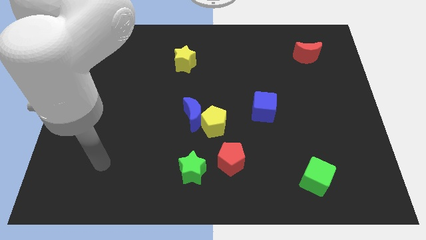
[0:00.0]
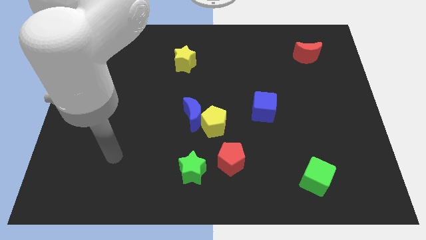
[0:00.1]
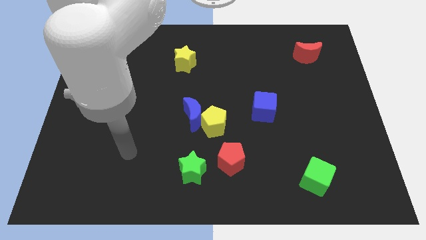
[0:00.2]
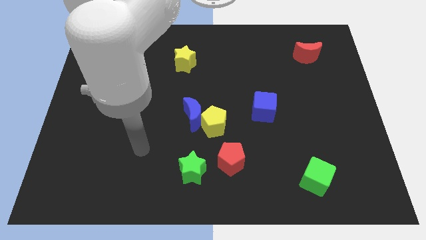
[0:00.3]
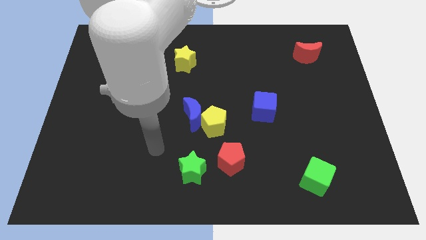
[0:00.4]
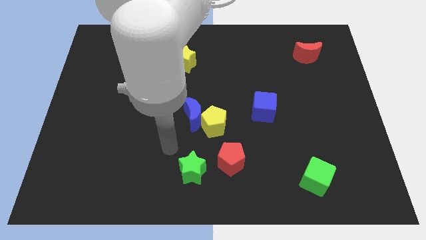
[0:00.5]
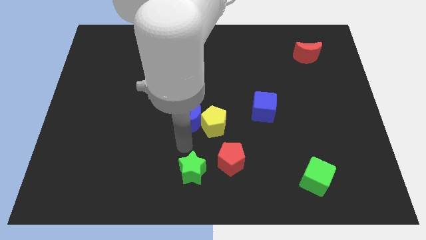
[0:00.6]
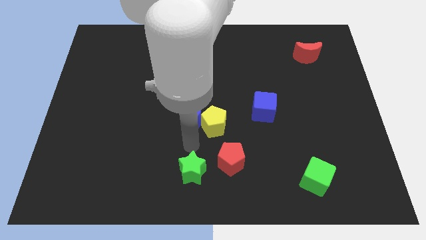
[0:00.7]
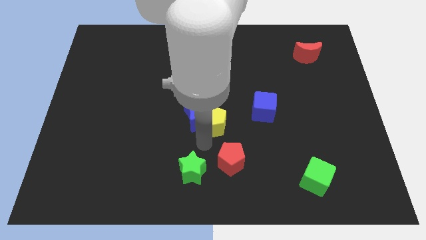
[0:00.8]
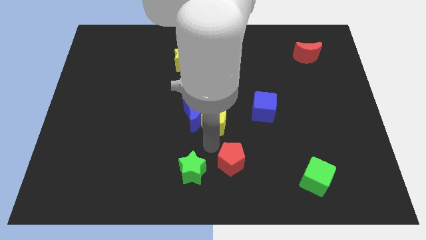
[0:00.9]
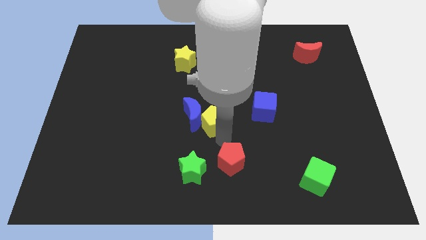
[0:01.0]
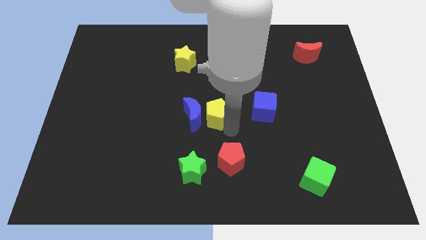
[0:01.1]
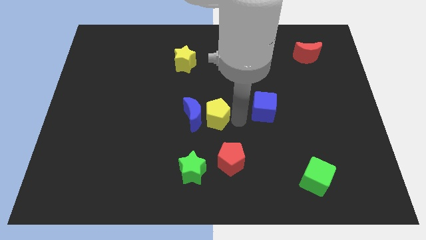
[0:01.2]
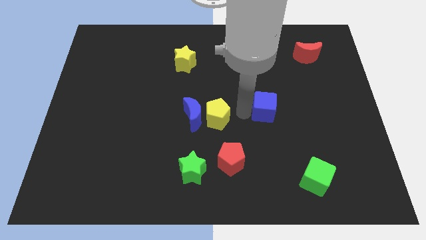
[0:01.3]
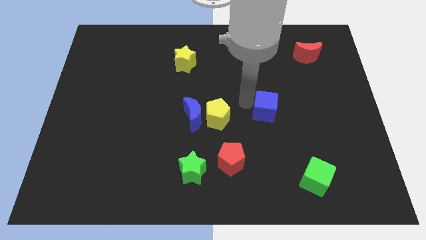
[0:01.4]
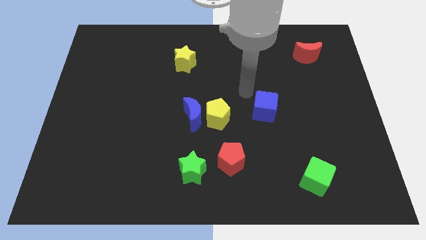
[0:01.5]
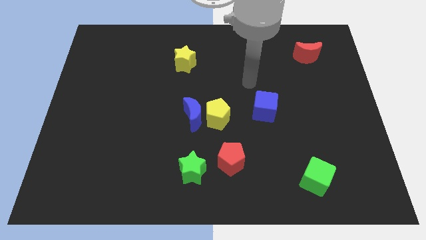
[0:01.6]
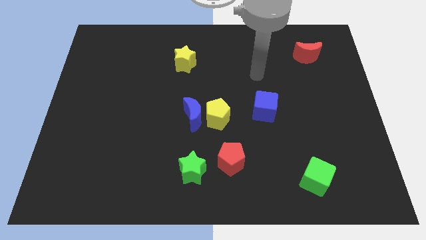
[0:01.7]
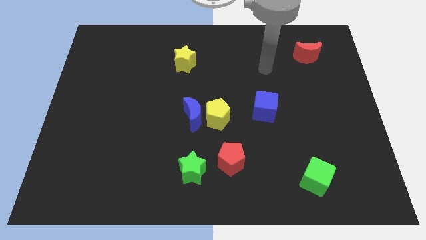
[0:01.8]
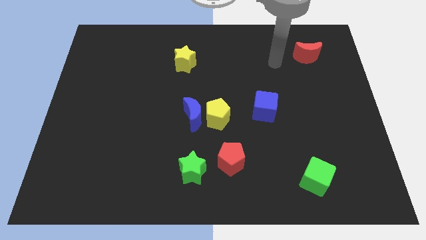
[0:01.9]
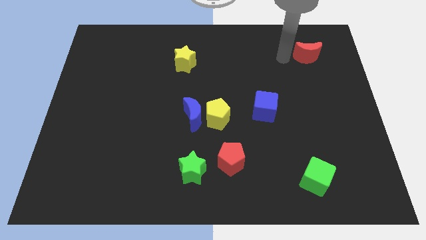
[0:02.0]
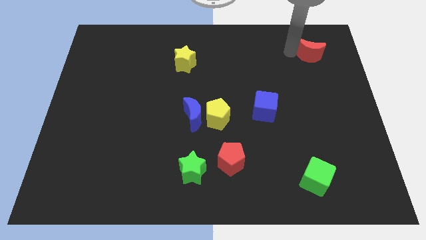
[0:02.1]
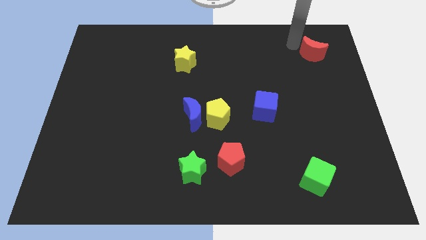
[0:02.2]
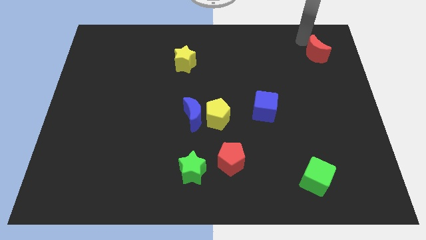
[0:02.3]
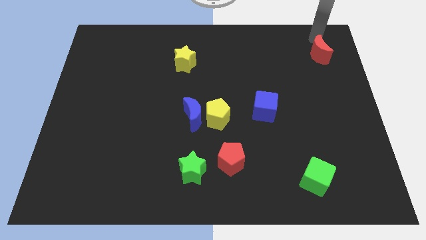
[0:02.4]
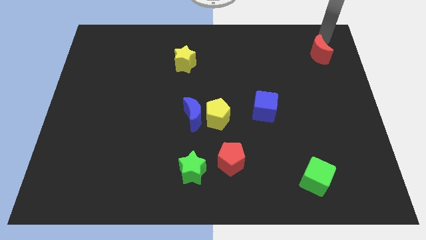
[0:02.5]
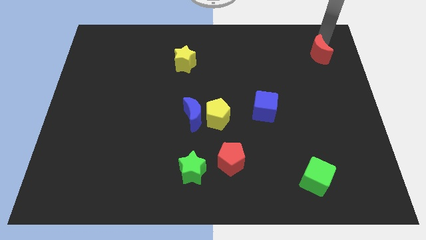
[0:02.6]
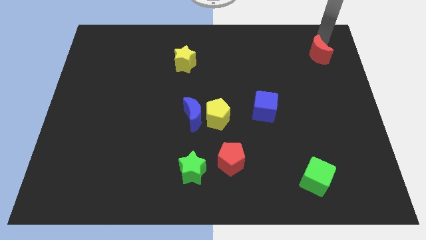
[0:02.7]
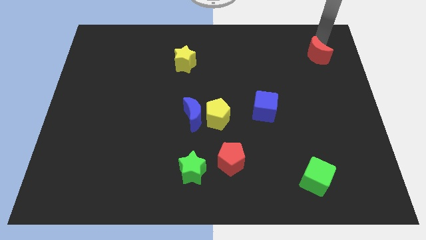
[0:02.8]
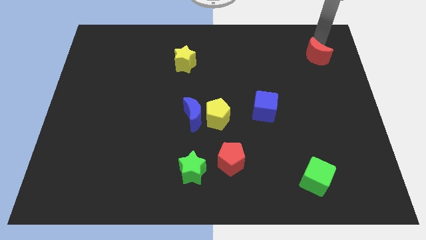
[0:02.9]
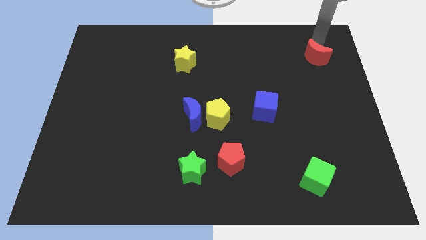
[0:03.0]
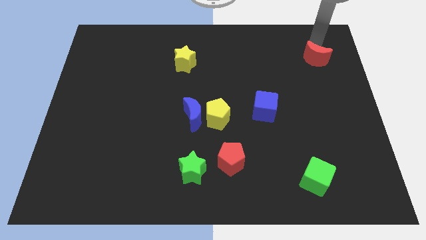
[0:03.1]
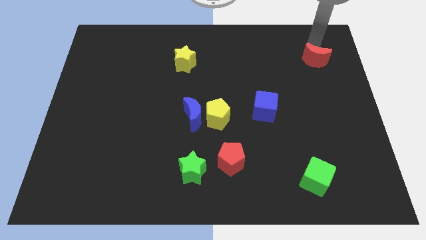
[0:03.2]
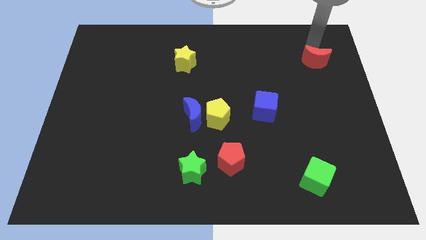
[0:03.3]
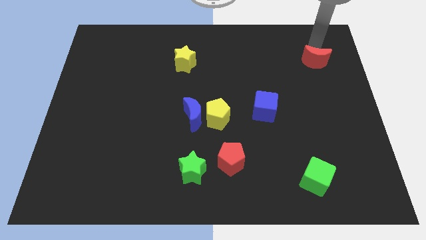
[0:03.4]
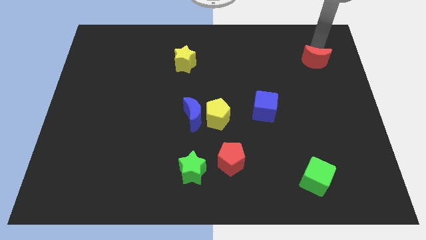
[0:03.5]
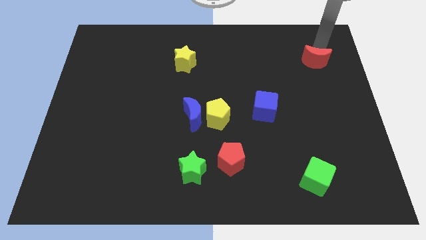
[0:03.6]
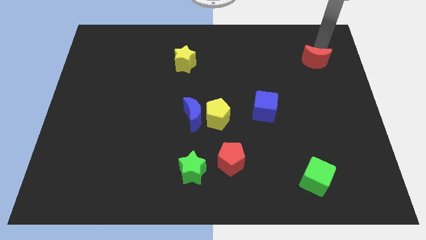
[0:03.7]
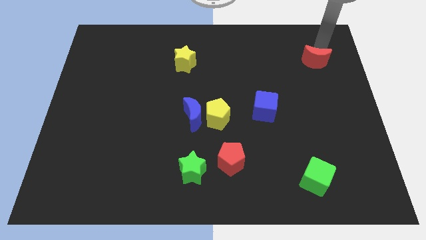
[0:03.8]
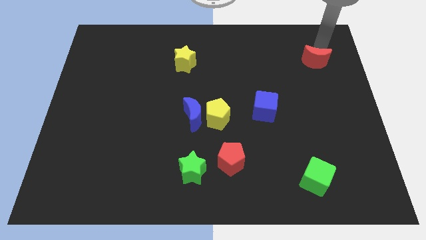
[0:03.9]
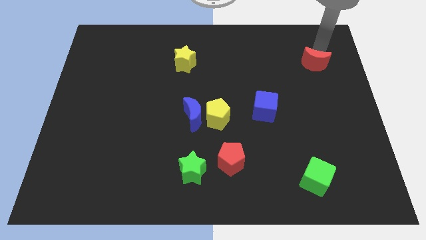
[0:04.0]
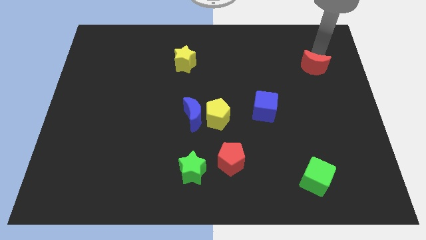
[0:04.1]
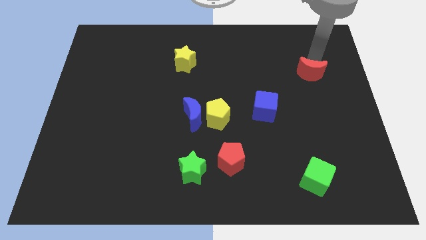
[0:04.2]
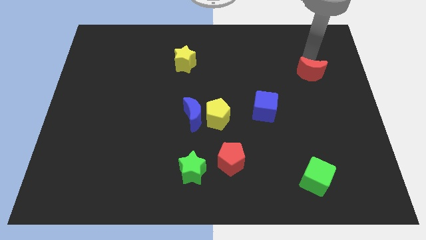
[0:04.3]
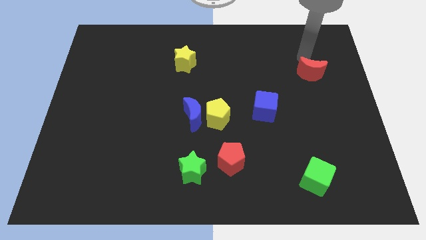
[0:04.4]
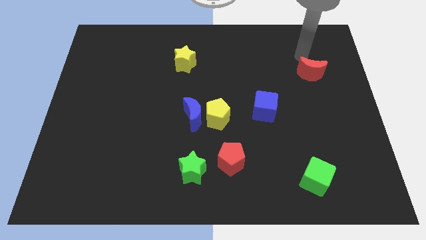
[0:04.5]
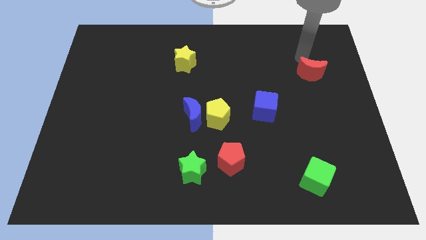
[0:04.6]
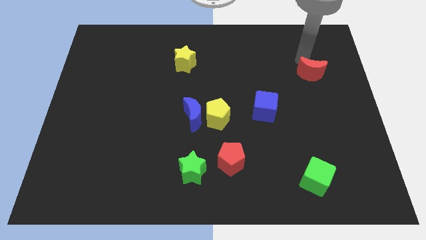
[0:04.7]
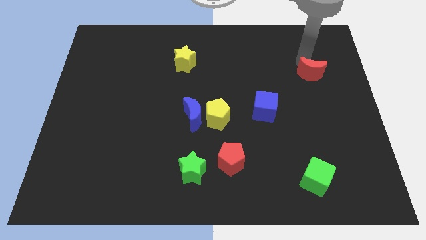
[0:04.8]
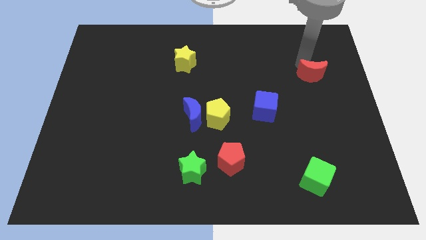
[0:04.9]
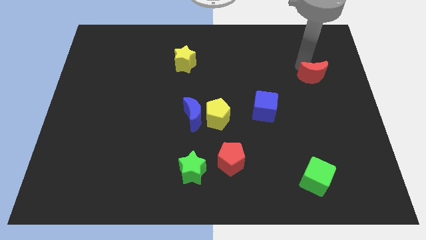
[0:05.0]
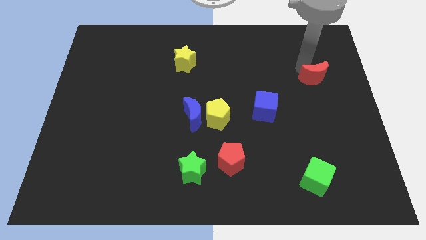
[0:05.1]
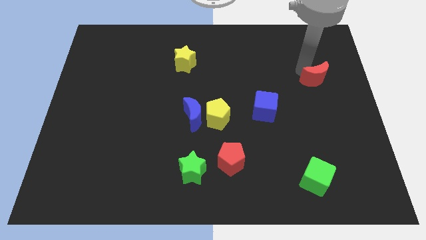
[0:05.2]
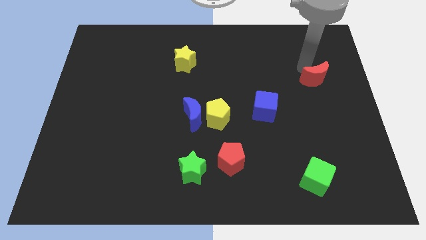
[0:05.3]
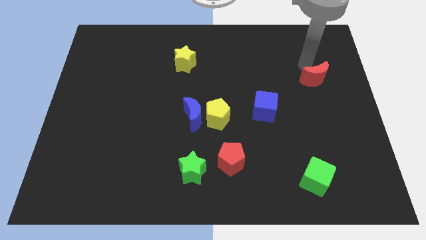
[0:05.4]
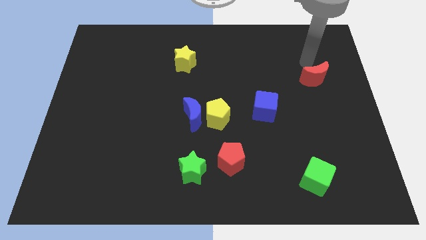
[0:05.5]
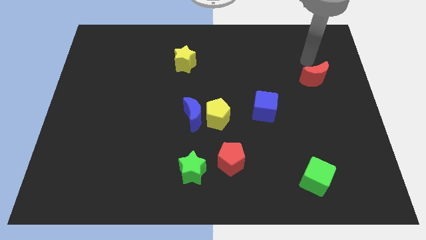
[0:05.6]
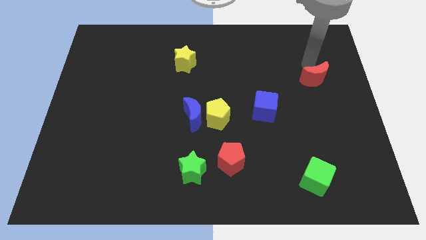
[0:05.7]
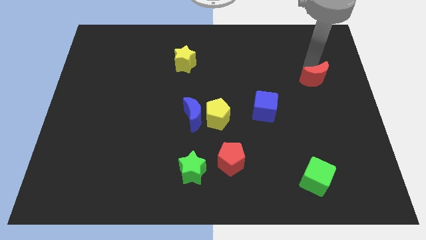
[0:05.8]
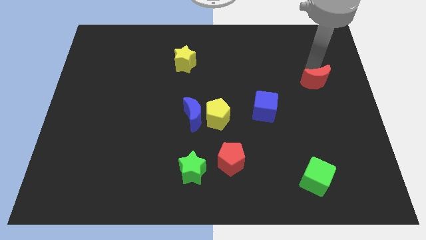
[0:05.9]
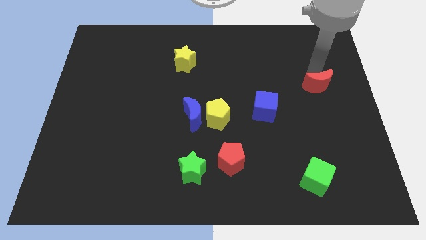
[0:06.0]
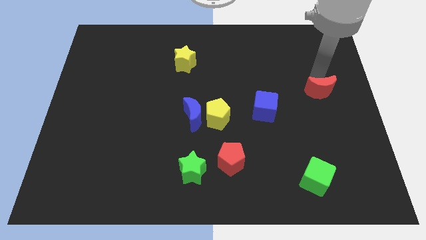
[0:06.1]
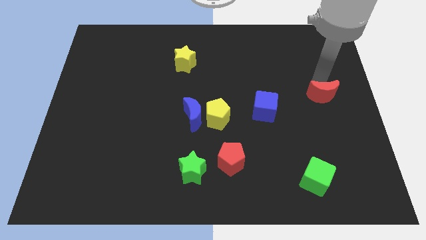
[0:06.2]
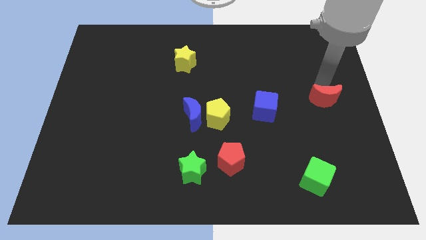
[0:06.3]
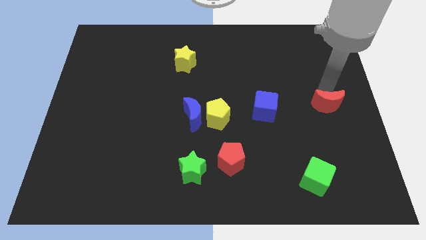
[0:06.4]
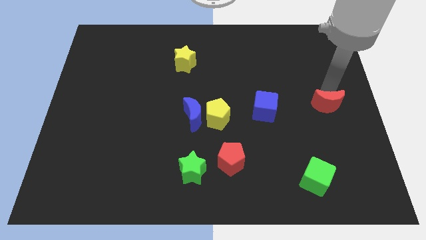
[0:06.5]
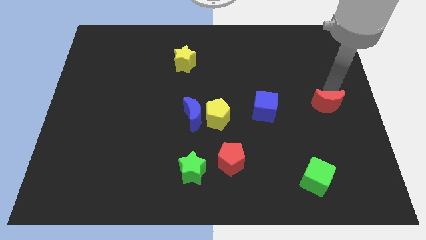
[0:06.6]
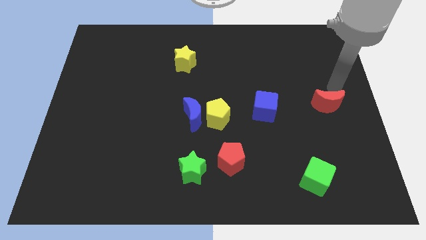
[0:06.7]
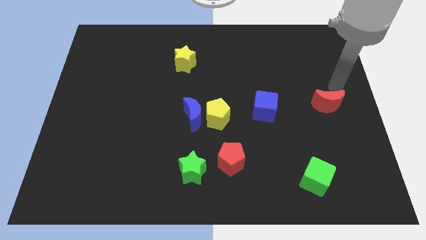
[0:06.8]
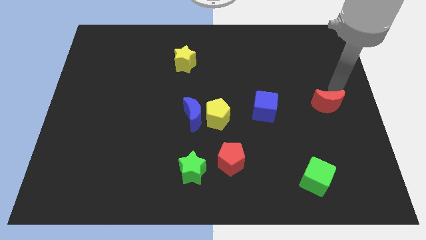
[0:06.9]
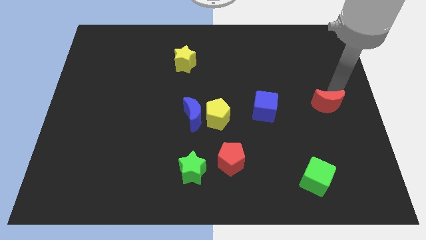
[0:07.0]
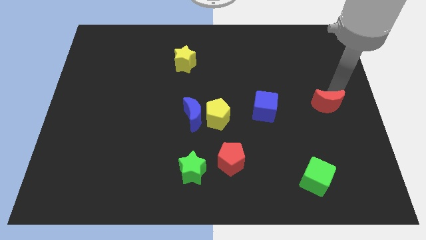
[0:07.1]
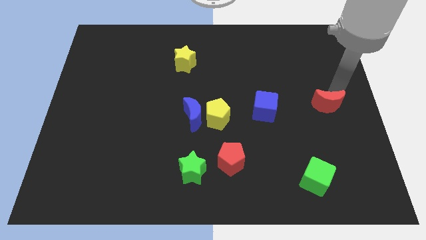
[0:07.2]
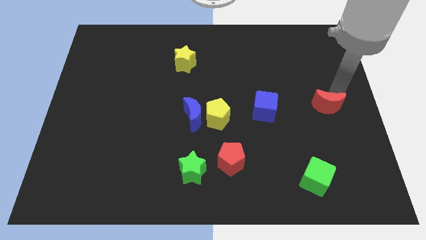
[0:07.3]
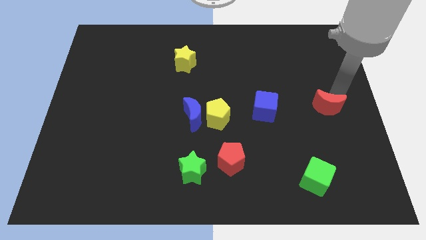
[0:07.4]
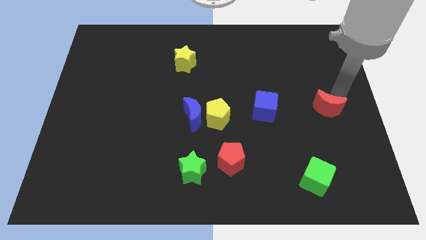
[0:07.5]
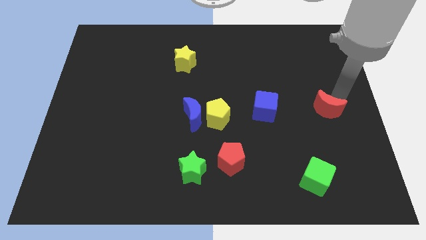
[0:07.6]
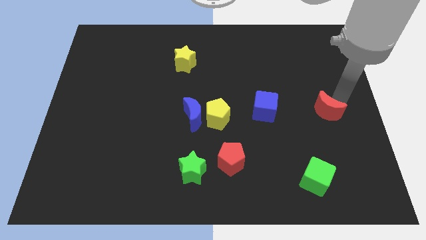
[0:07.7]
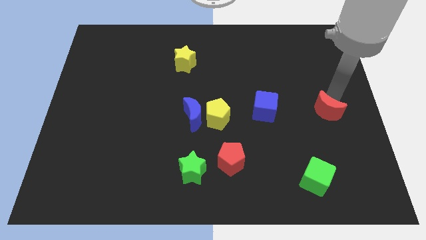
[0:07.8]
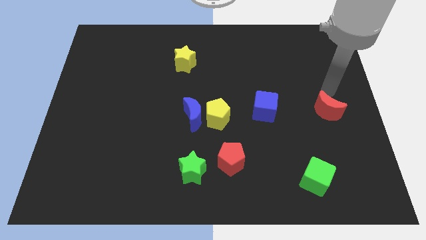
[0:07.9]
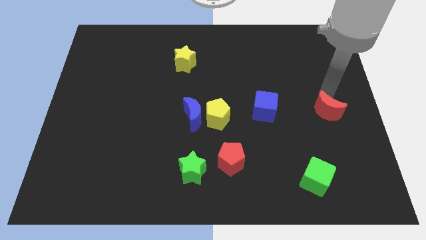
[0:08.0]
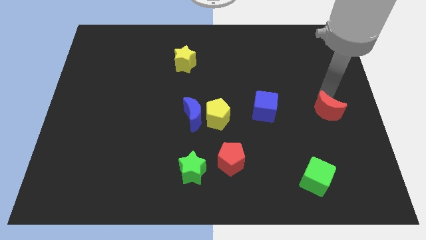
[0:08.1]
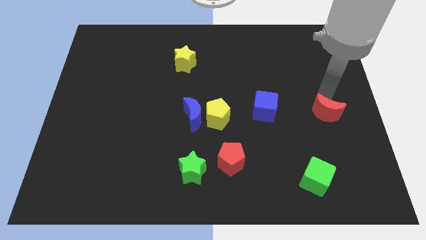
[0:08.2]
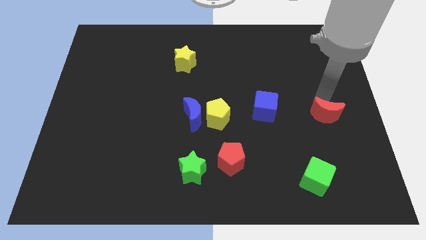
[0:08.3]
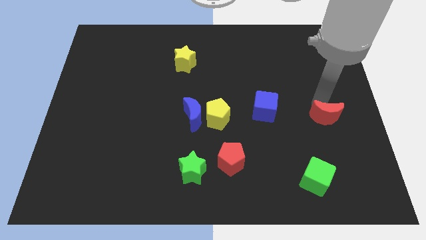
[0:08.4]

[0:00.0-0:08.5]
move the red moon downwards
